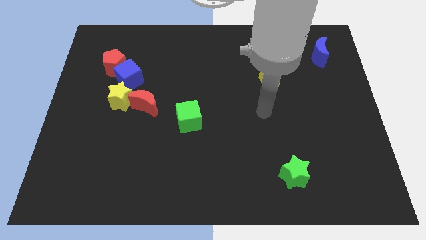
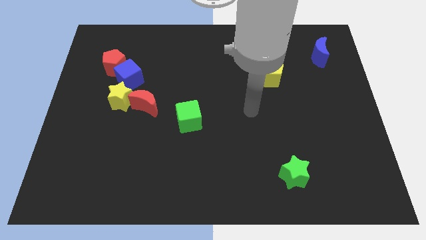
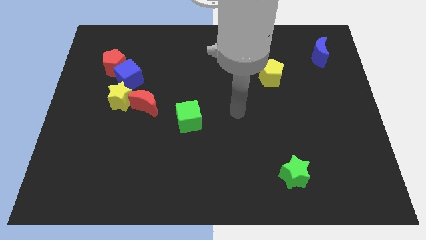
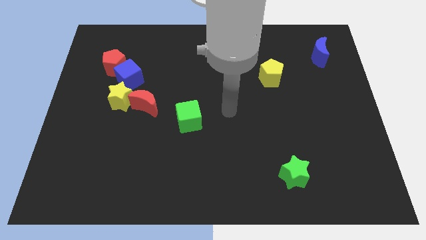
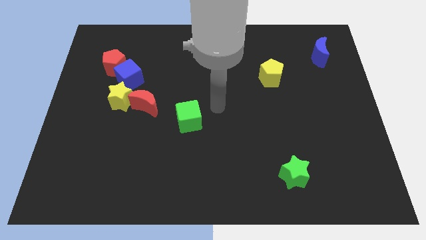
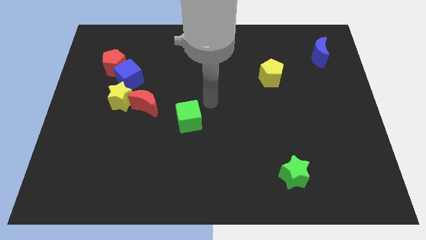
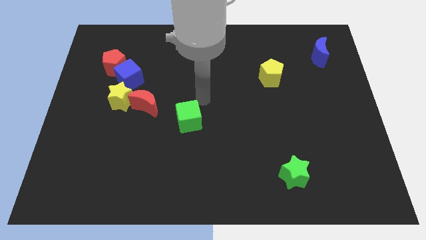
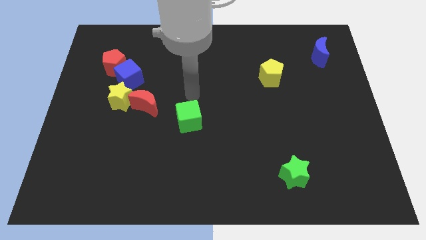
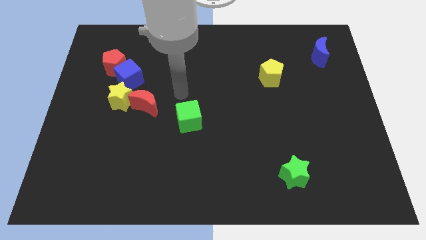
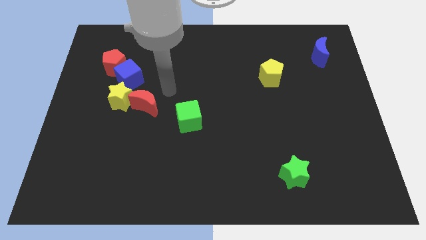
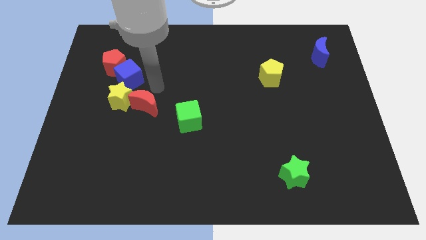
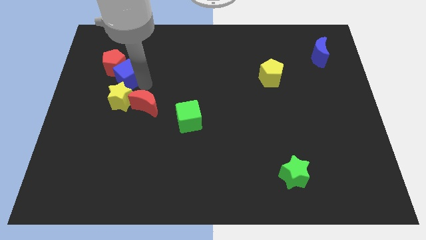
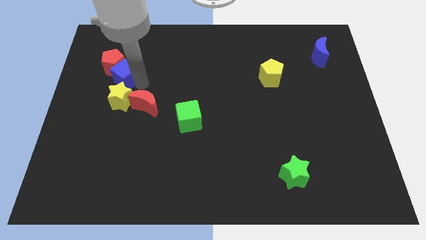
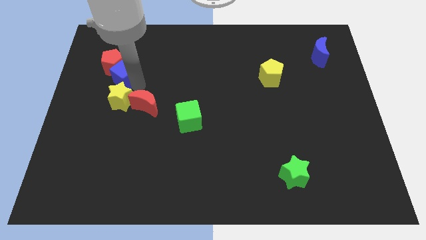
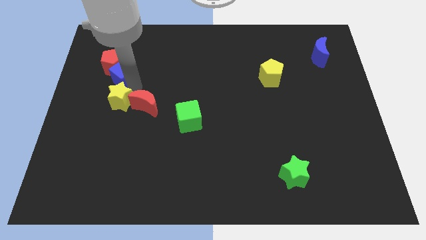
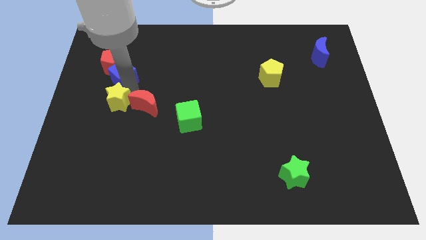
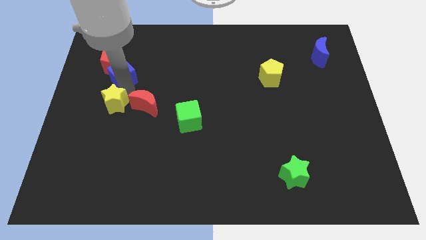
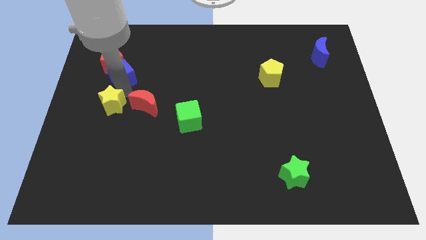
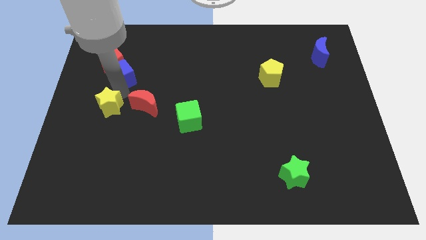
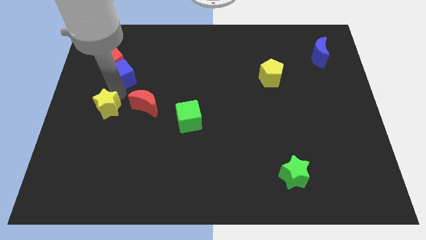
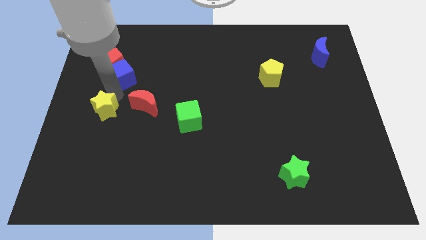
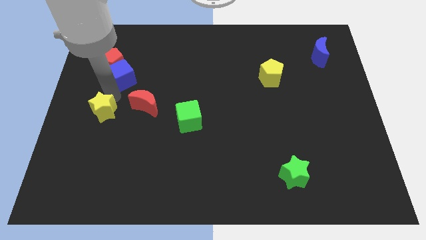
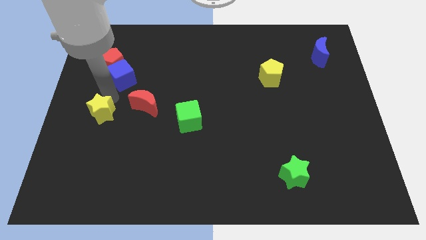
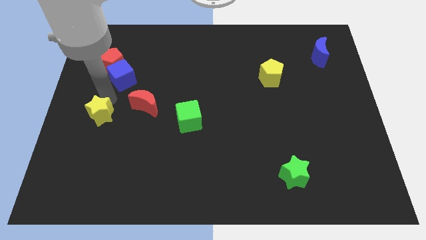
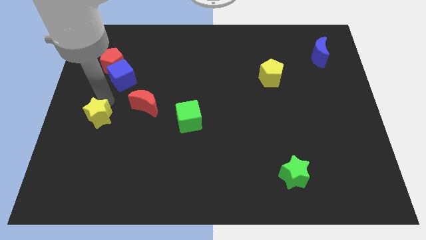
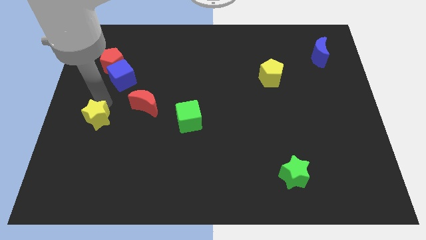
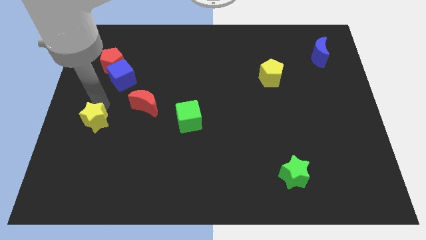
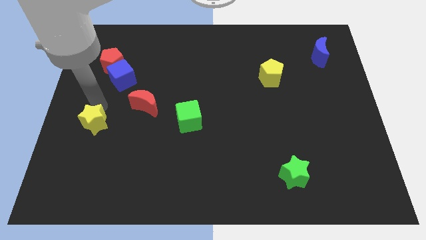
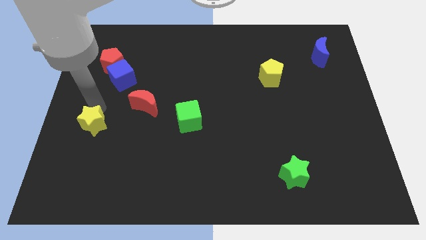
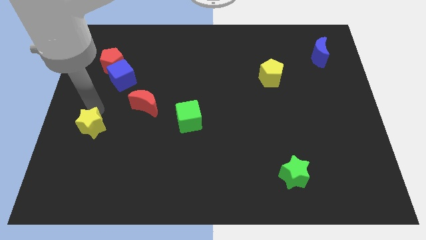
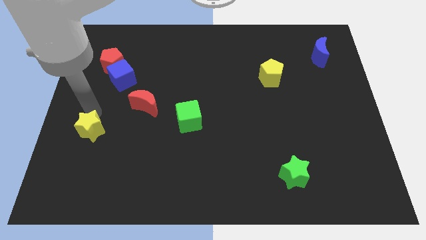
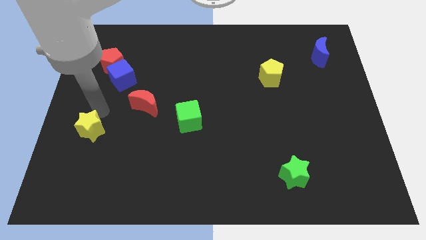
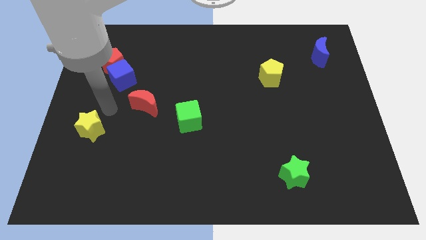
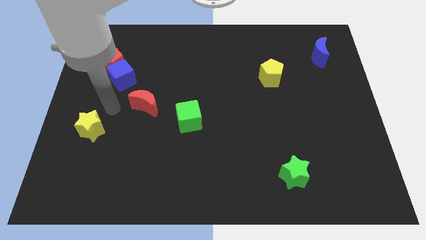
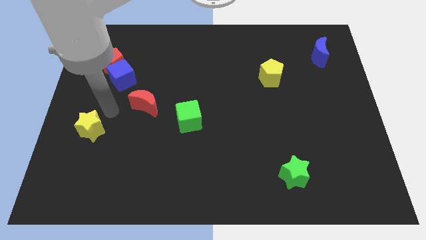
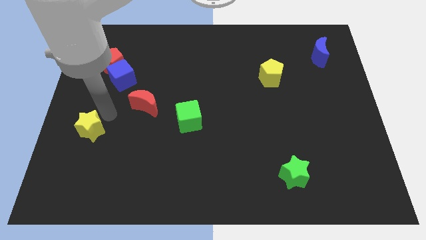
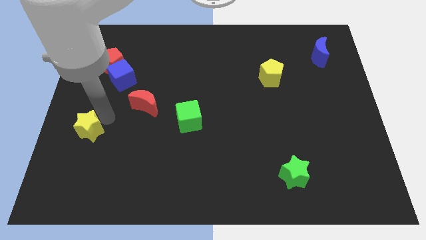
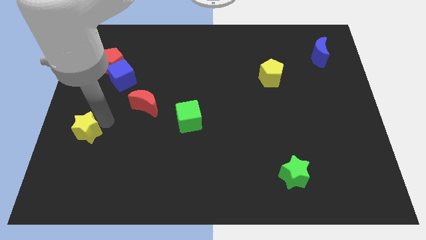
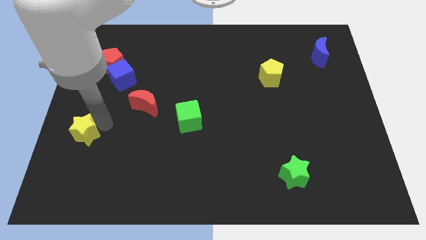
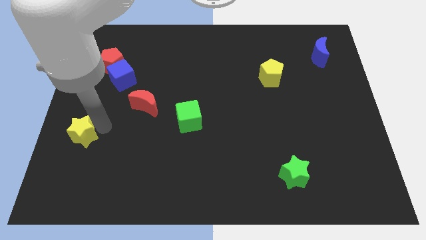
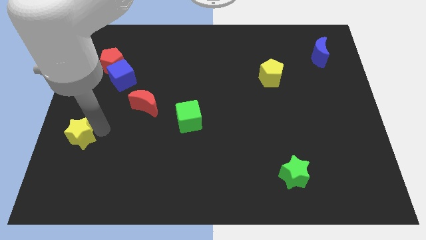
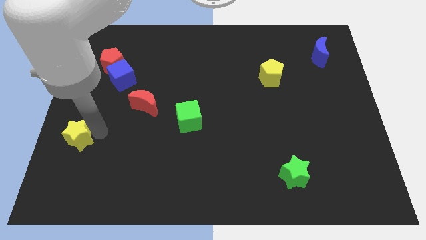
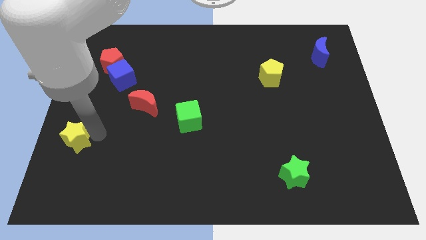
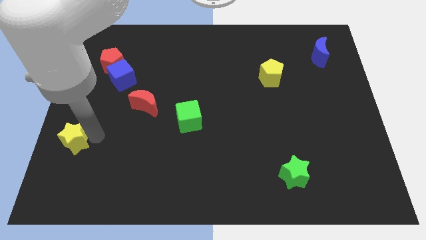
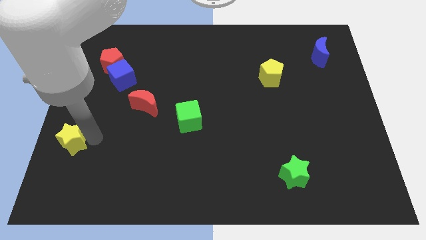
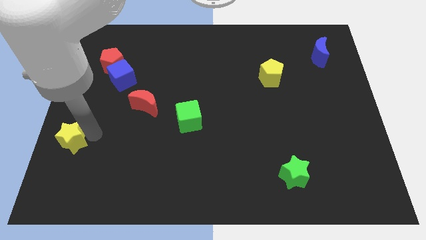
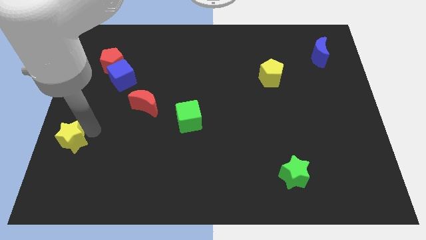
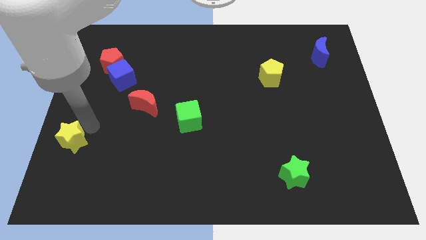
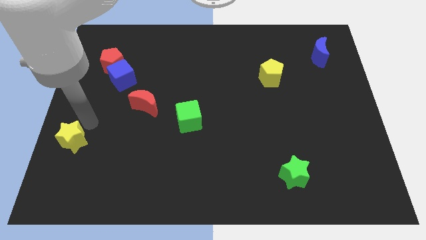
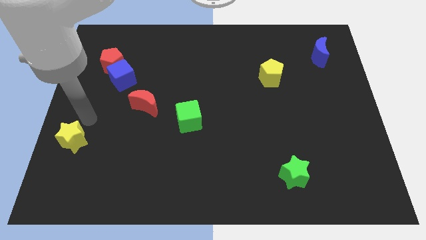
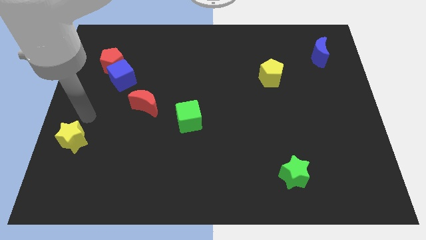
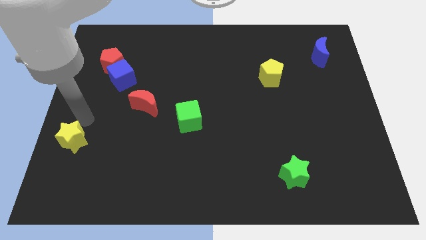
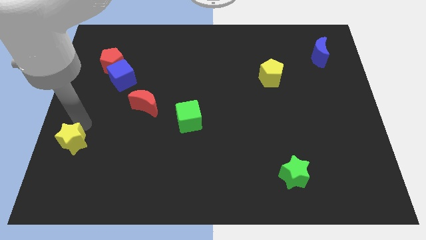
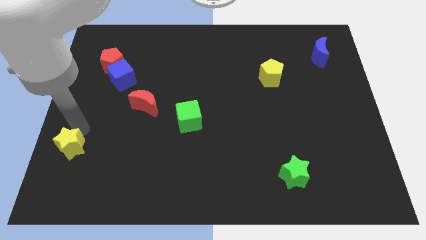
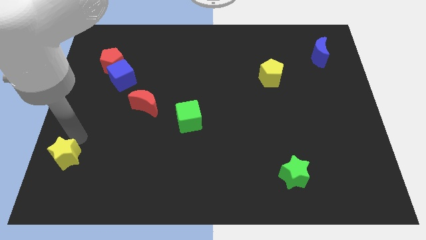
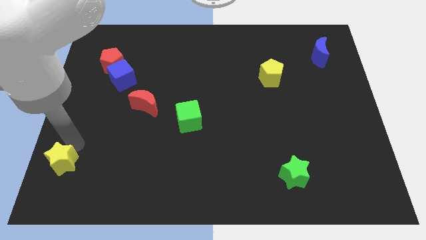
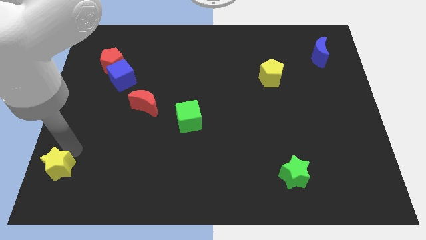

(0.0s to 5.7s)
move the yellow star to the bottom left
